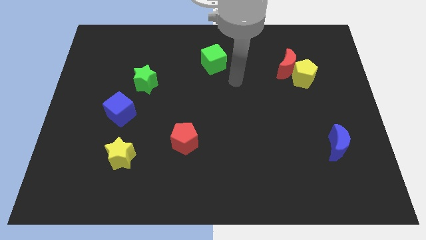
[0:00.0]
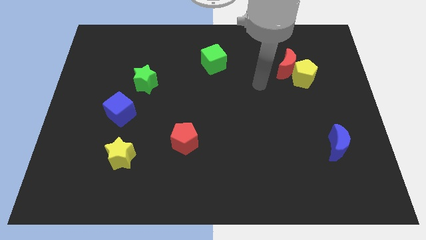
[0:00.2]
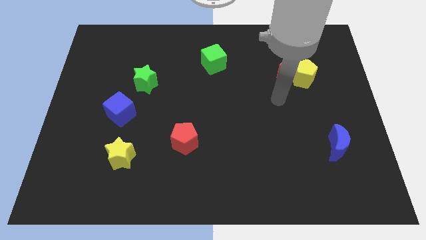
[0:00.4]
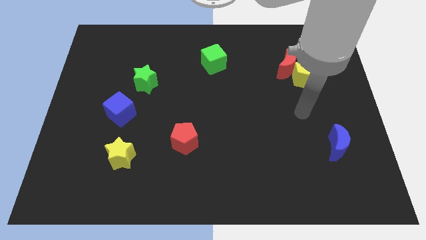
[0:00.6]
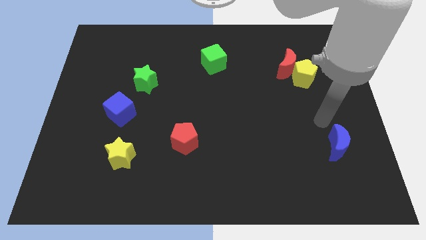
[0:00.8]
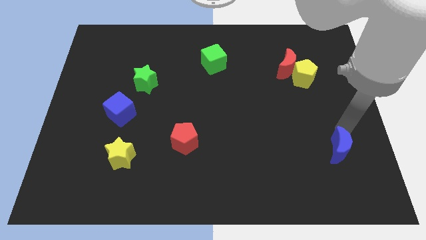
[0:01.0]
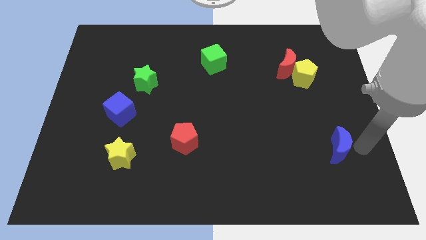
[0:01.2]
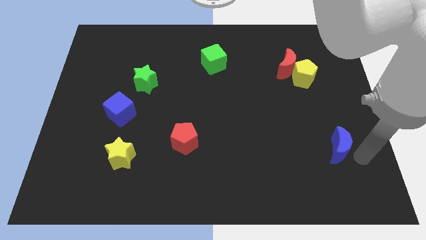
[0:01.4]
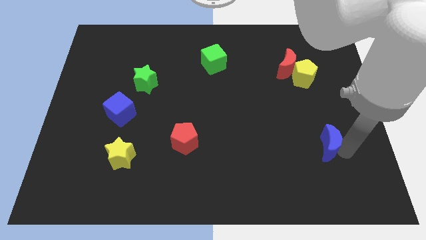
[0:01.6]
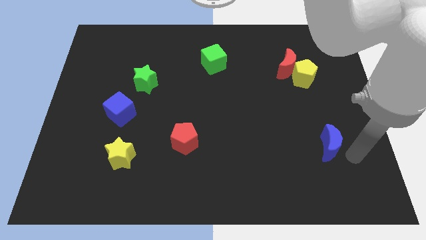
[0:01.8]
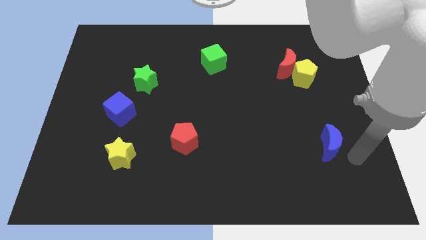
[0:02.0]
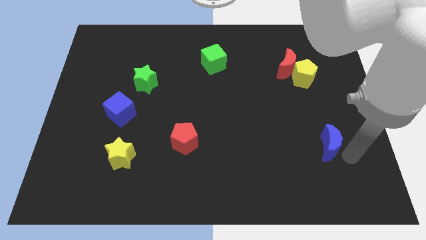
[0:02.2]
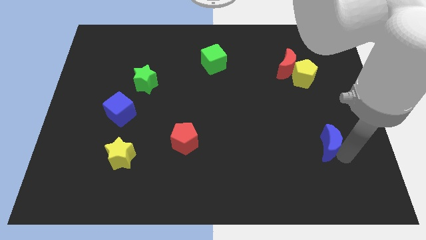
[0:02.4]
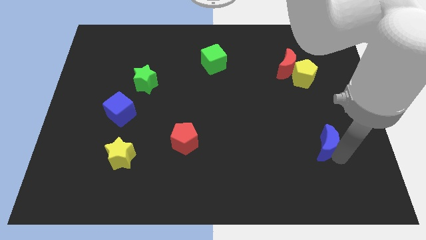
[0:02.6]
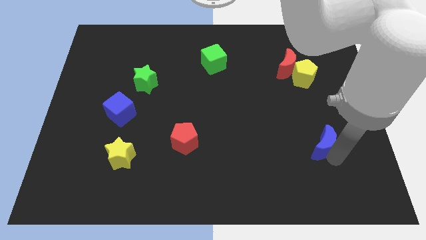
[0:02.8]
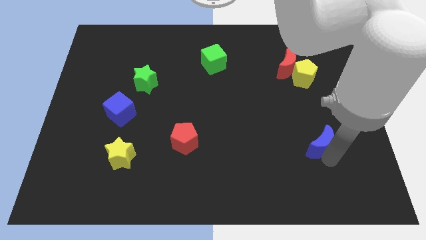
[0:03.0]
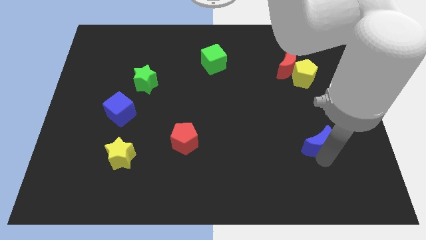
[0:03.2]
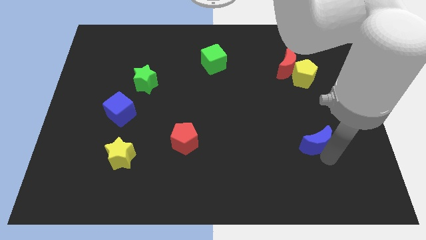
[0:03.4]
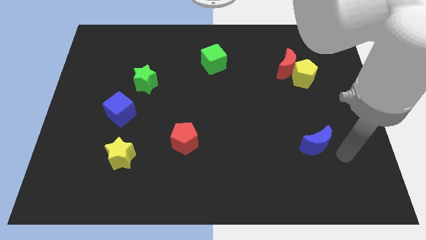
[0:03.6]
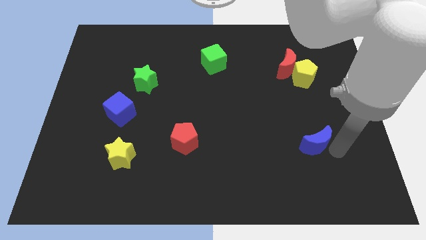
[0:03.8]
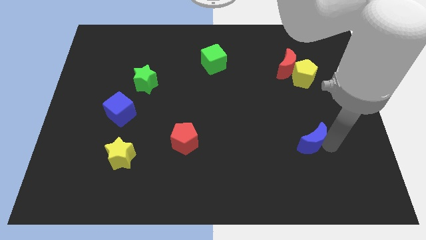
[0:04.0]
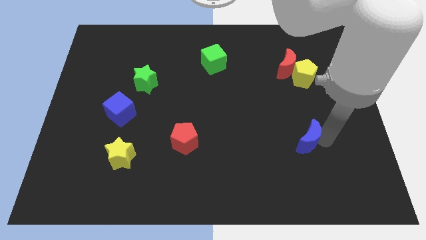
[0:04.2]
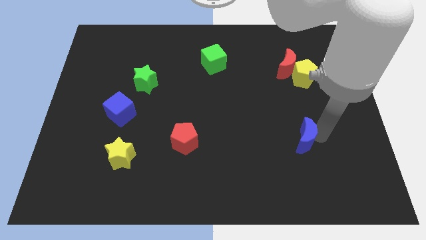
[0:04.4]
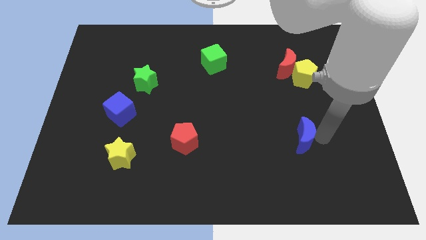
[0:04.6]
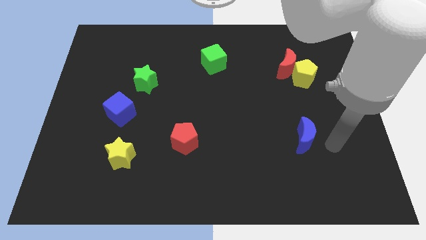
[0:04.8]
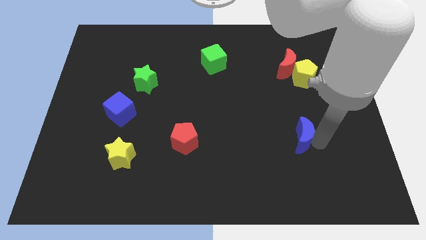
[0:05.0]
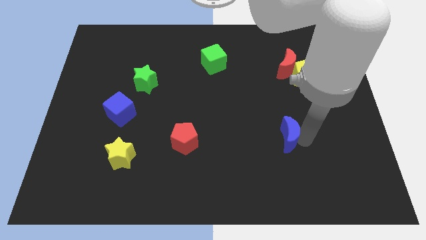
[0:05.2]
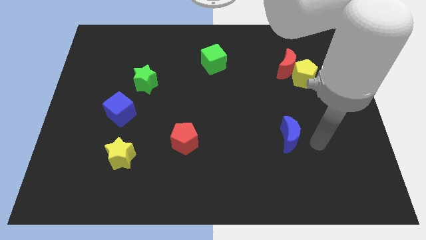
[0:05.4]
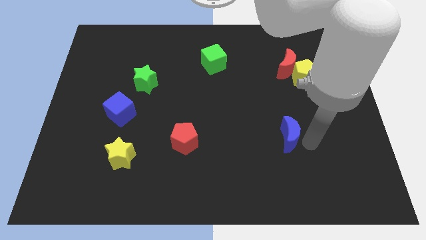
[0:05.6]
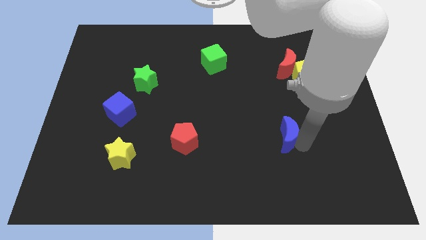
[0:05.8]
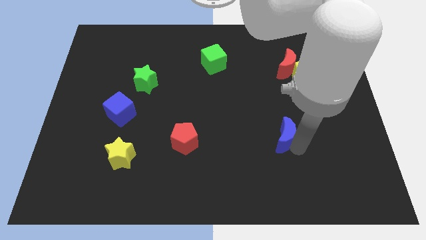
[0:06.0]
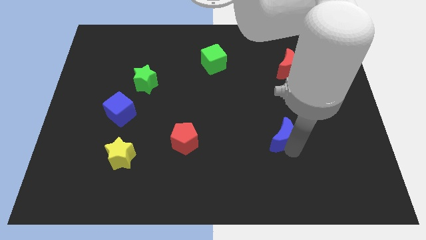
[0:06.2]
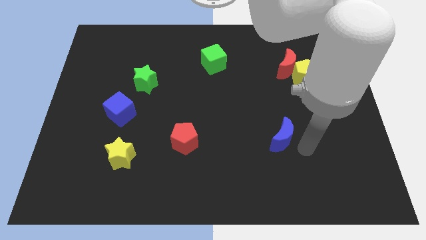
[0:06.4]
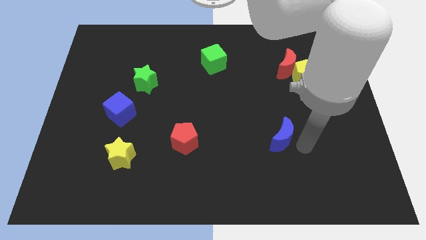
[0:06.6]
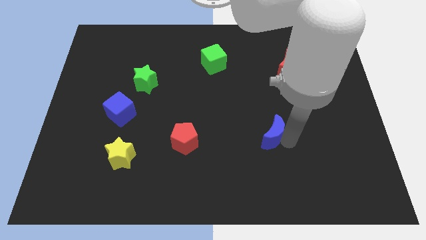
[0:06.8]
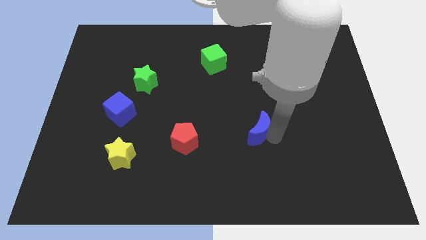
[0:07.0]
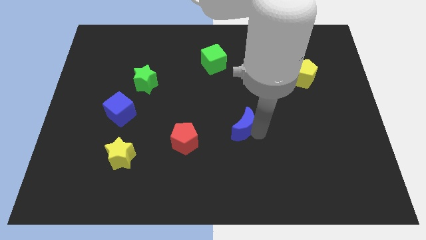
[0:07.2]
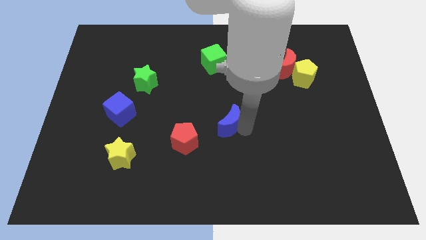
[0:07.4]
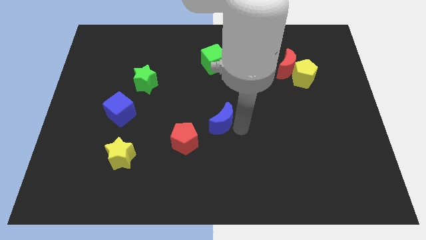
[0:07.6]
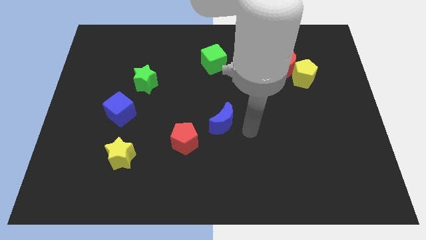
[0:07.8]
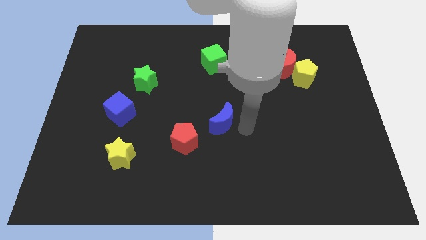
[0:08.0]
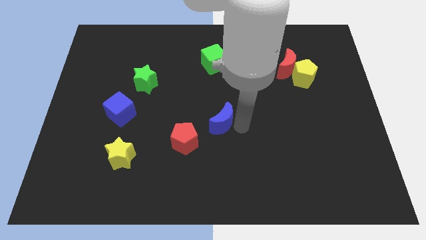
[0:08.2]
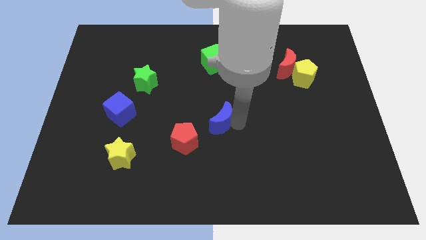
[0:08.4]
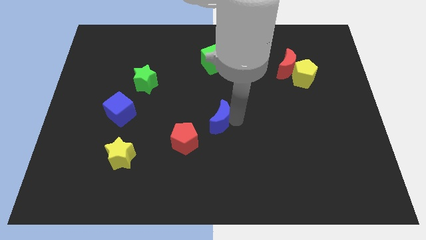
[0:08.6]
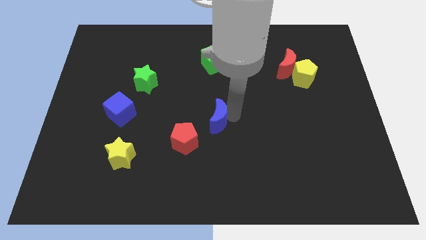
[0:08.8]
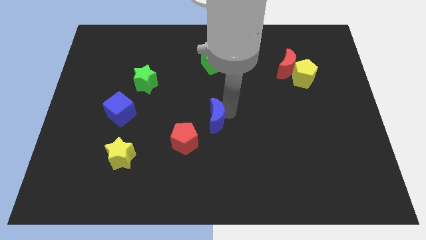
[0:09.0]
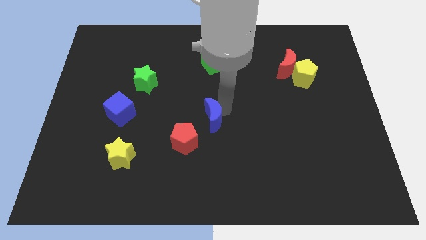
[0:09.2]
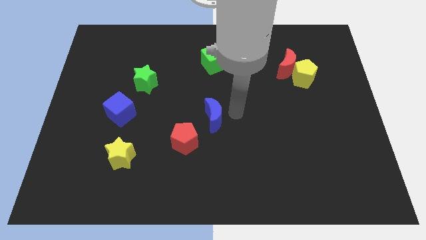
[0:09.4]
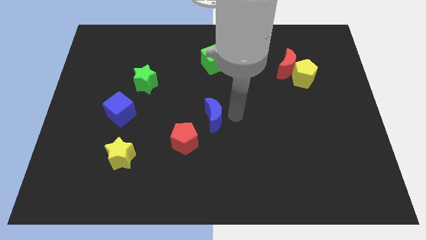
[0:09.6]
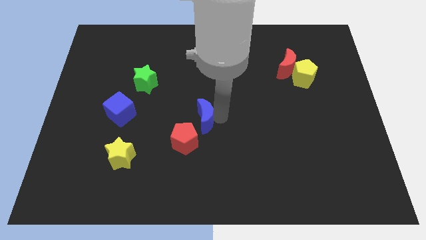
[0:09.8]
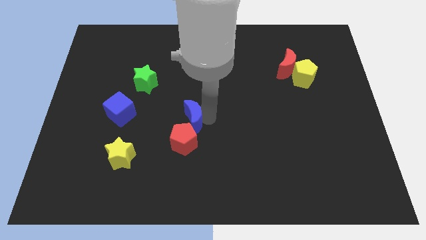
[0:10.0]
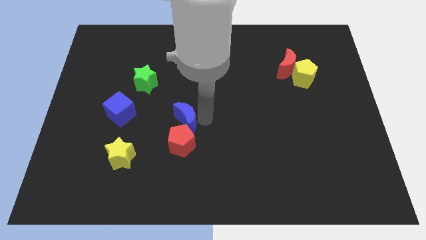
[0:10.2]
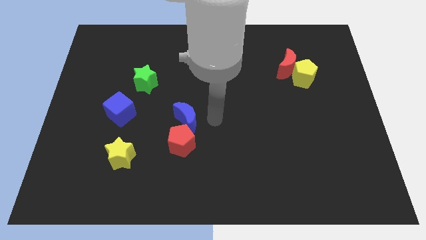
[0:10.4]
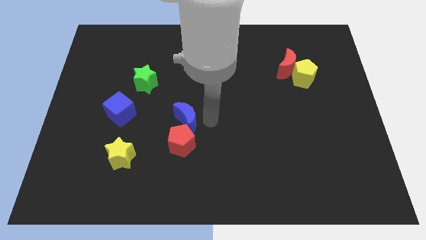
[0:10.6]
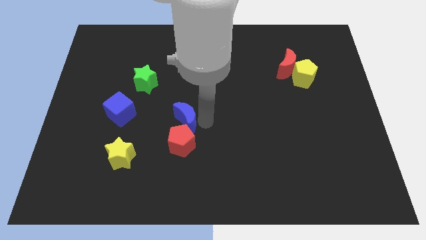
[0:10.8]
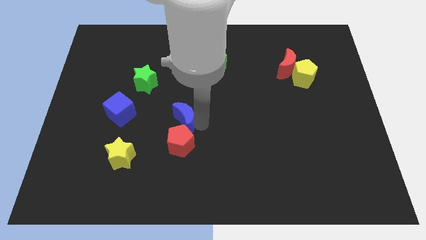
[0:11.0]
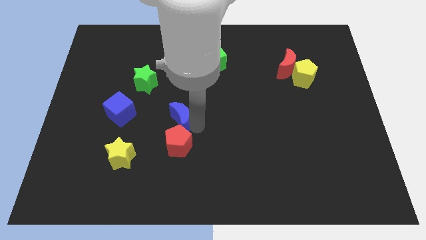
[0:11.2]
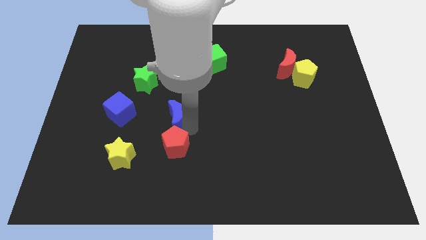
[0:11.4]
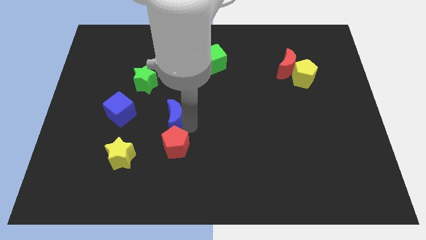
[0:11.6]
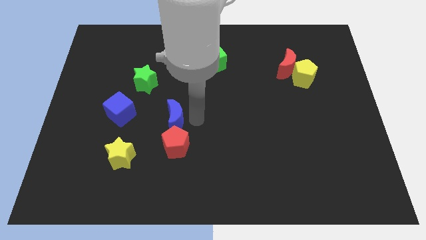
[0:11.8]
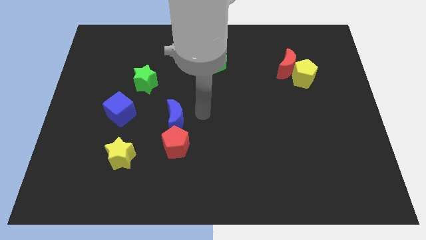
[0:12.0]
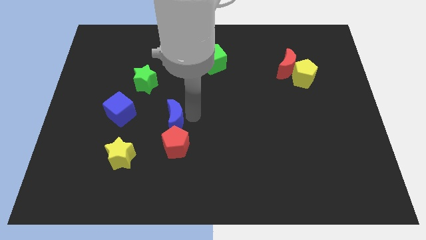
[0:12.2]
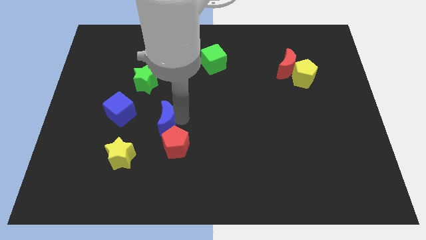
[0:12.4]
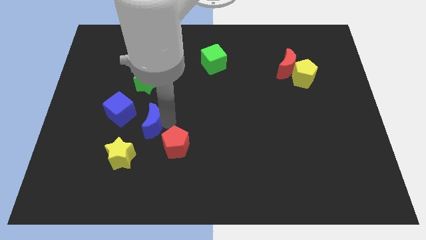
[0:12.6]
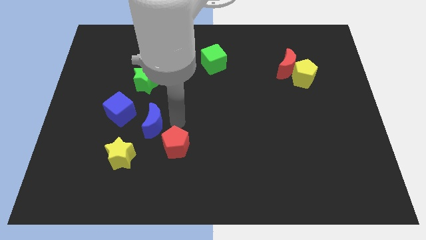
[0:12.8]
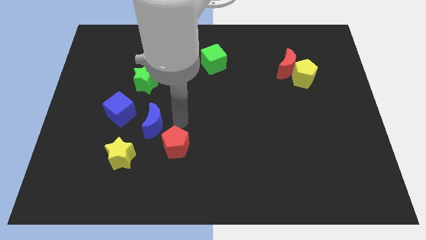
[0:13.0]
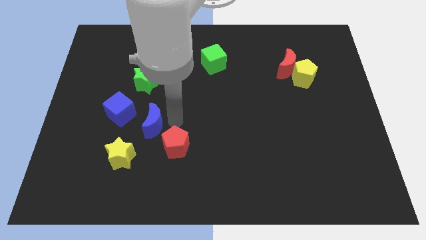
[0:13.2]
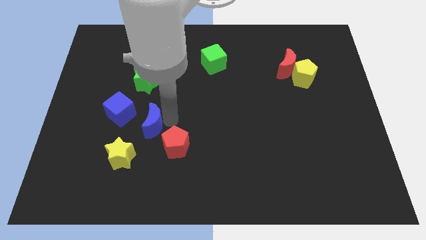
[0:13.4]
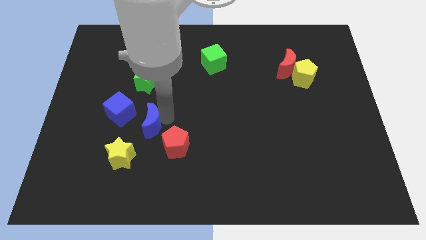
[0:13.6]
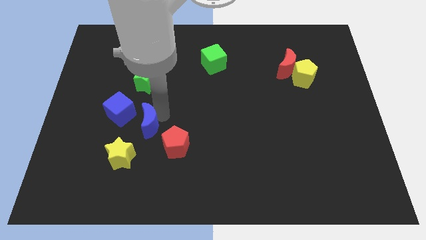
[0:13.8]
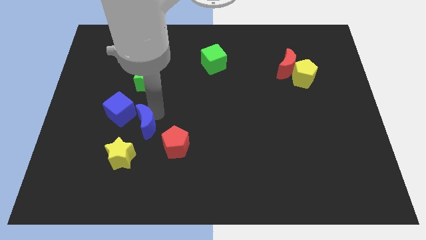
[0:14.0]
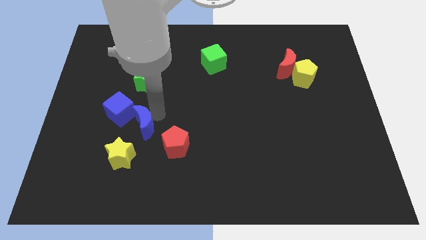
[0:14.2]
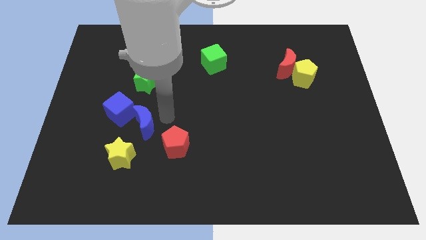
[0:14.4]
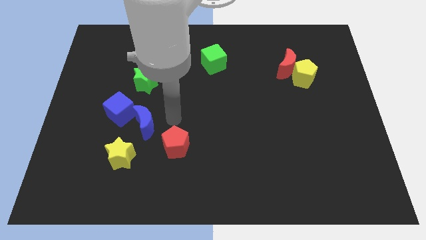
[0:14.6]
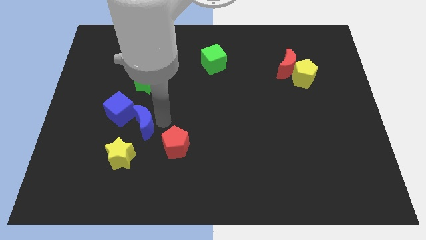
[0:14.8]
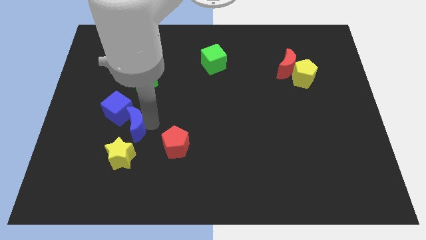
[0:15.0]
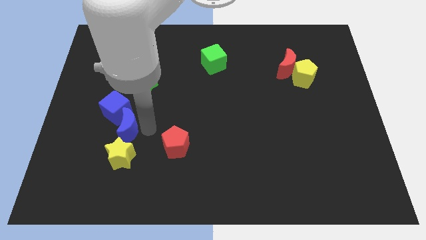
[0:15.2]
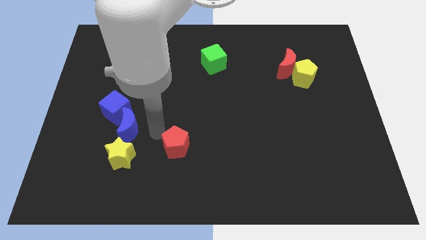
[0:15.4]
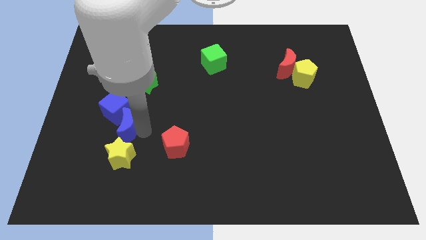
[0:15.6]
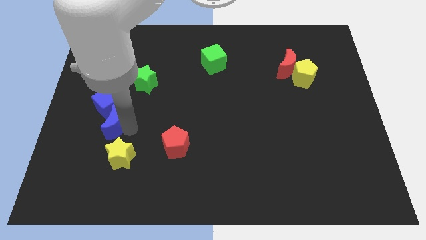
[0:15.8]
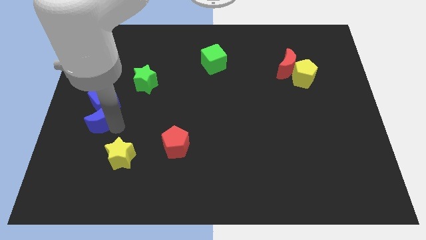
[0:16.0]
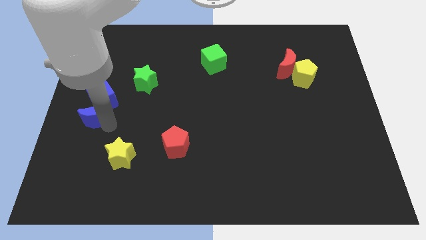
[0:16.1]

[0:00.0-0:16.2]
move the blue moon to the left side
